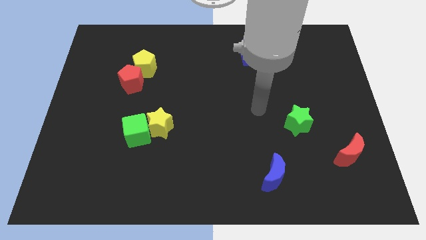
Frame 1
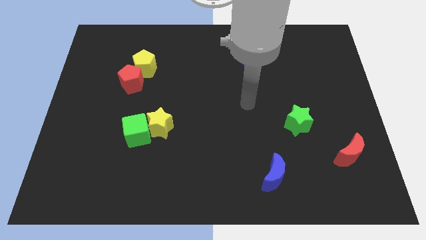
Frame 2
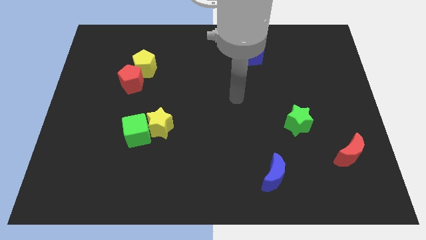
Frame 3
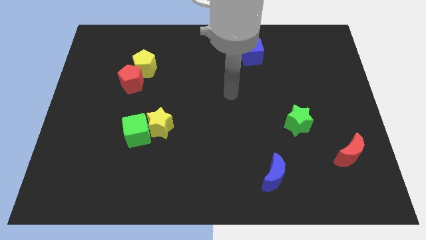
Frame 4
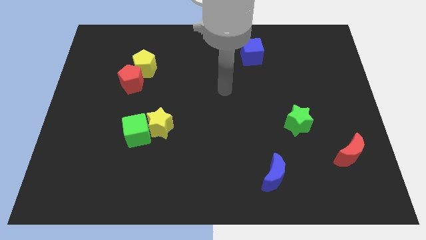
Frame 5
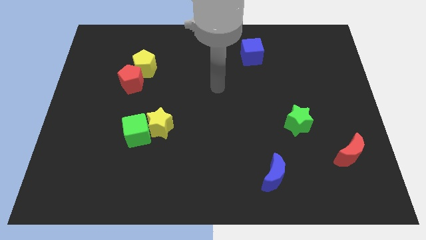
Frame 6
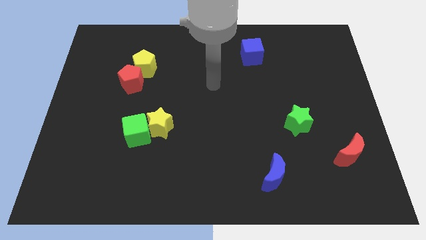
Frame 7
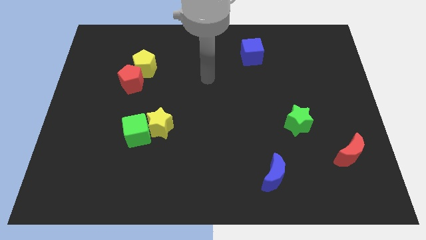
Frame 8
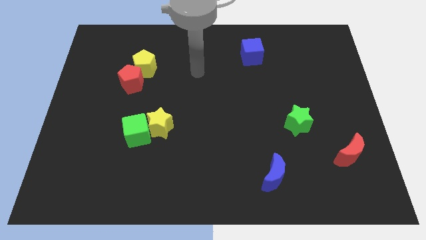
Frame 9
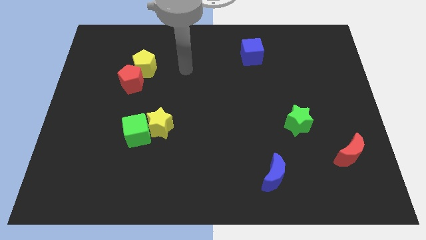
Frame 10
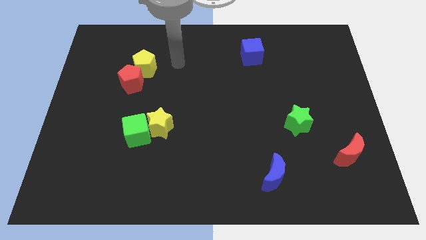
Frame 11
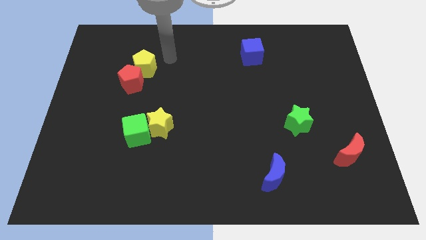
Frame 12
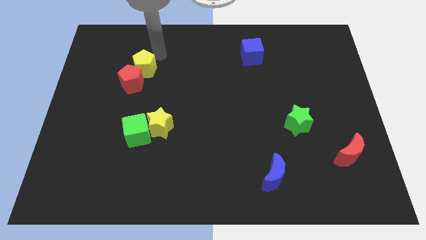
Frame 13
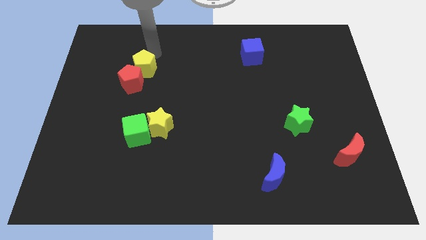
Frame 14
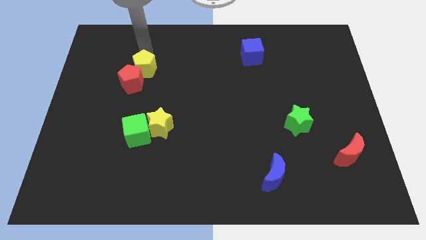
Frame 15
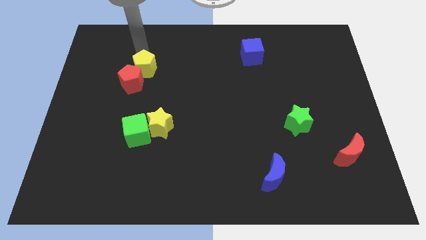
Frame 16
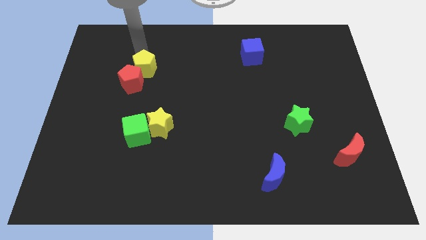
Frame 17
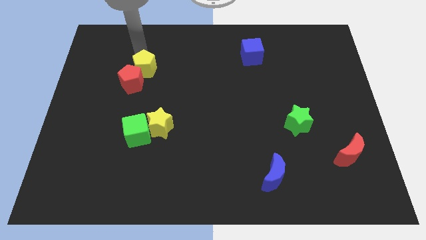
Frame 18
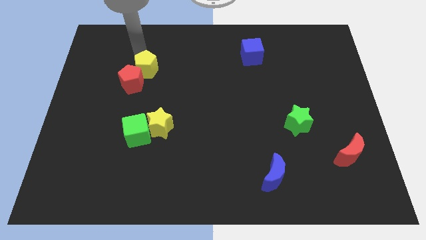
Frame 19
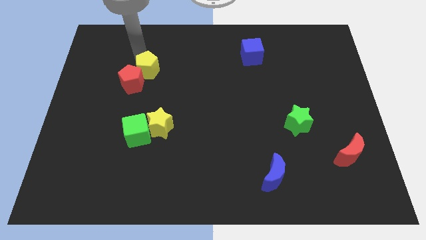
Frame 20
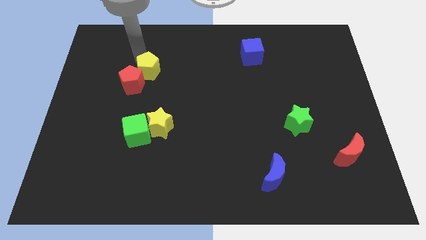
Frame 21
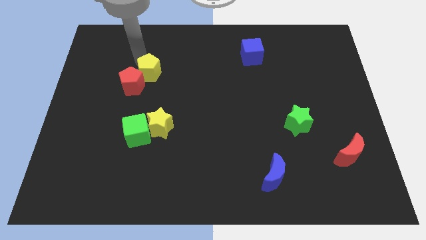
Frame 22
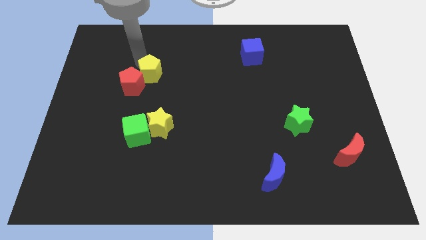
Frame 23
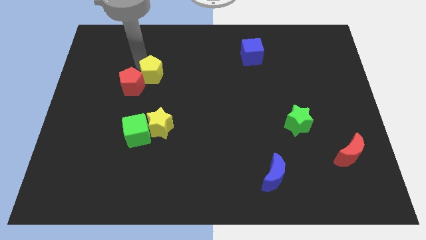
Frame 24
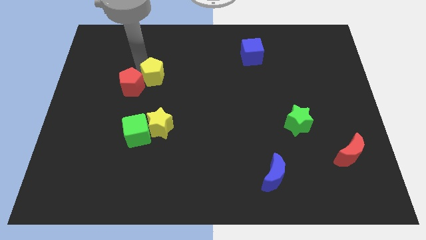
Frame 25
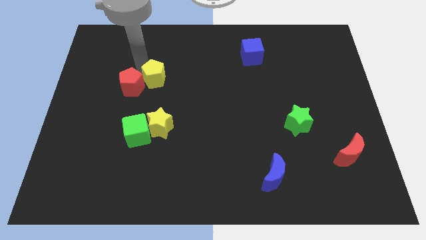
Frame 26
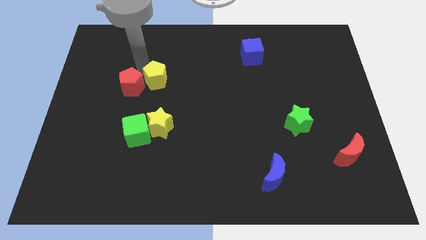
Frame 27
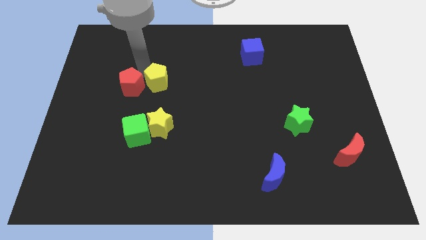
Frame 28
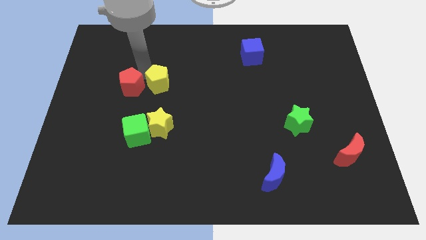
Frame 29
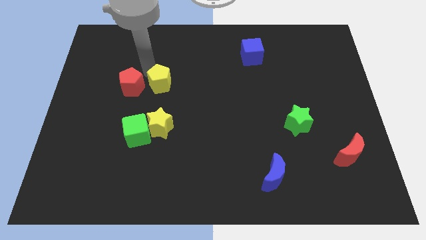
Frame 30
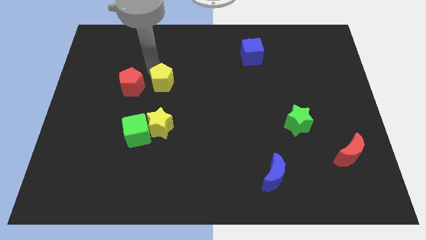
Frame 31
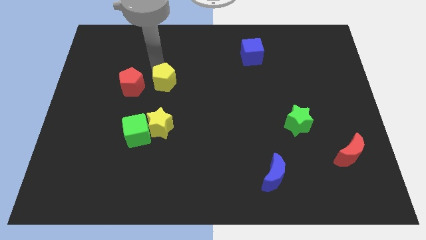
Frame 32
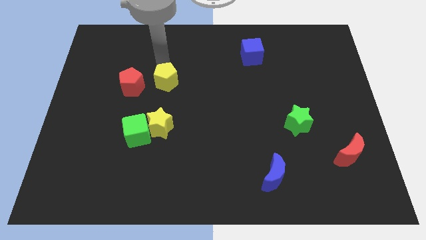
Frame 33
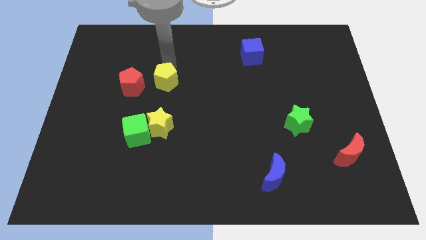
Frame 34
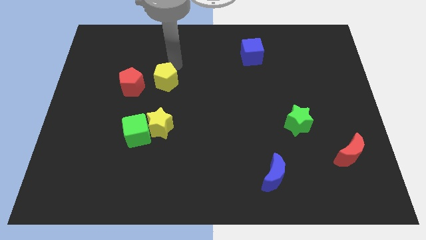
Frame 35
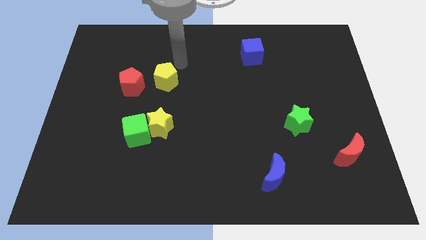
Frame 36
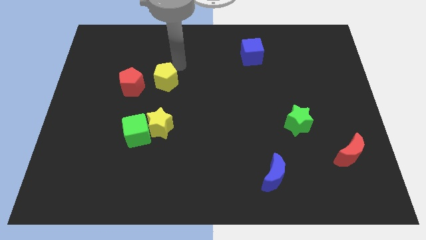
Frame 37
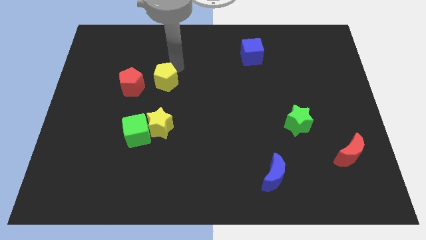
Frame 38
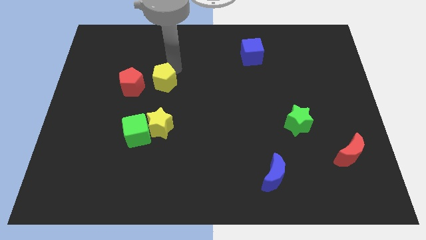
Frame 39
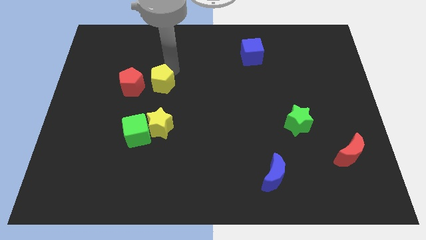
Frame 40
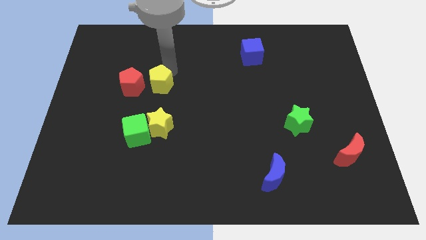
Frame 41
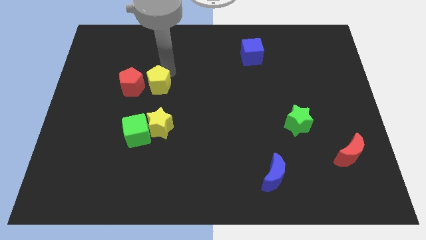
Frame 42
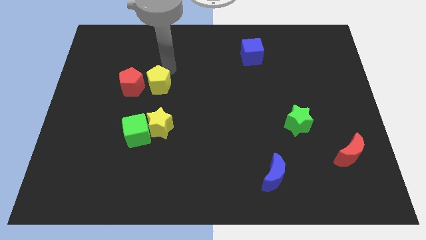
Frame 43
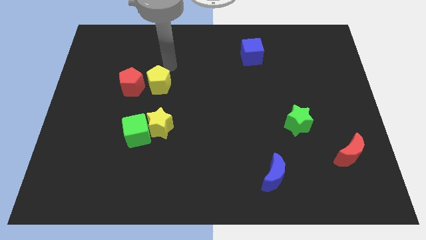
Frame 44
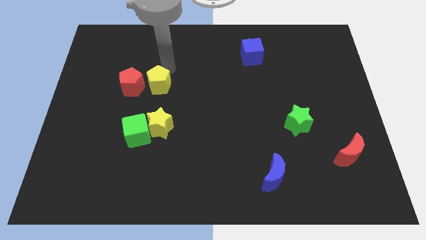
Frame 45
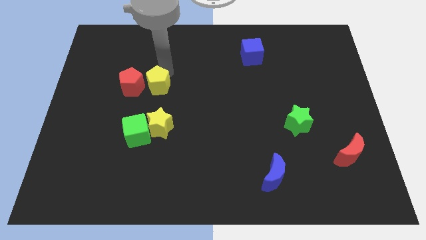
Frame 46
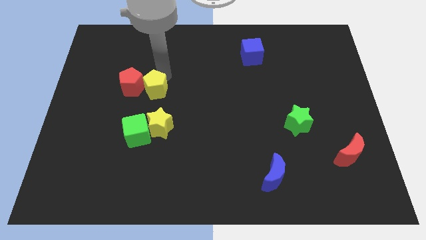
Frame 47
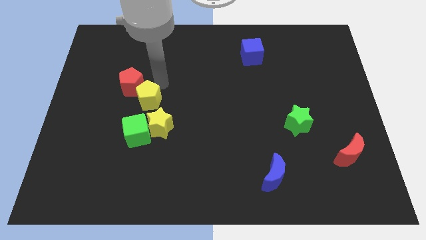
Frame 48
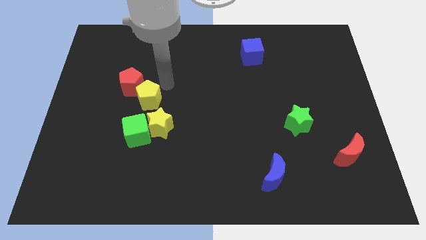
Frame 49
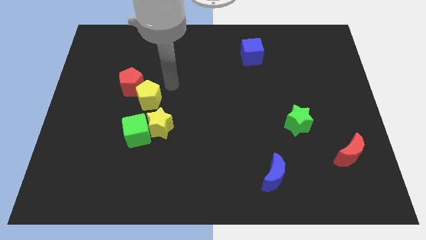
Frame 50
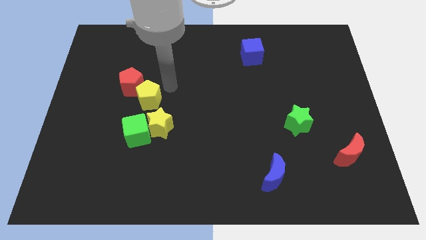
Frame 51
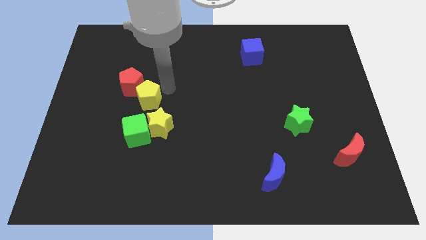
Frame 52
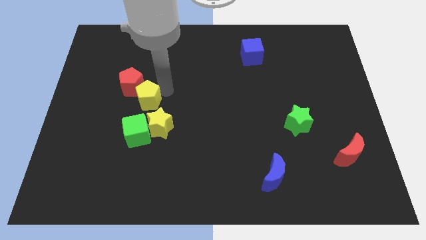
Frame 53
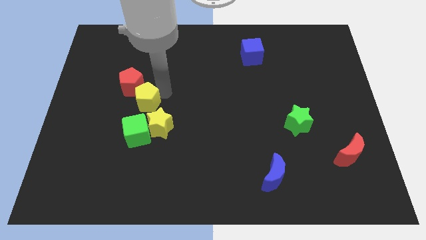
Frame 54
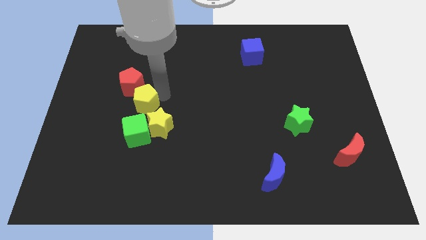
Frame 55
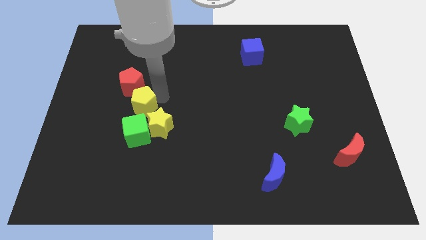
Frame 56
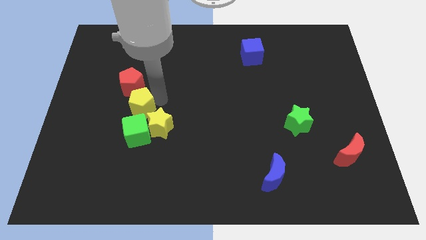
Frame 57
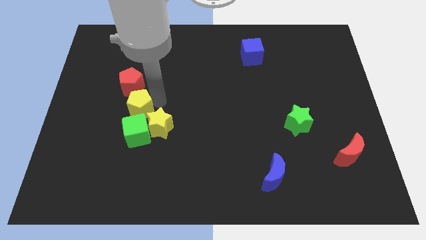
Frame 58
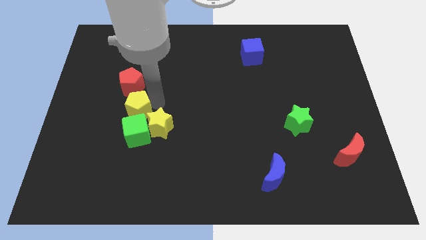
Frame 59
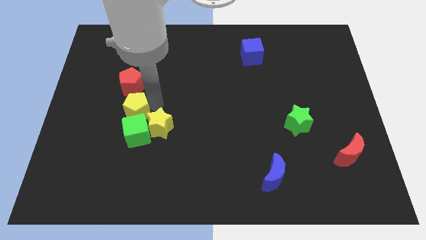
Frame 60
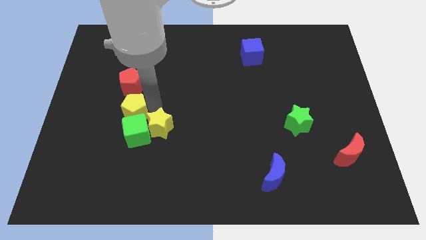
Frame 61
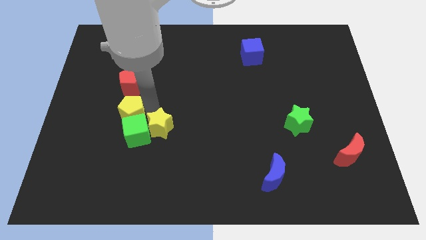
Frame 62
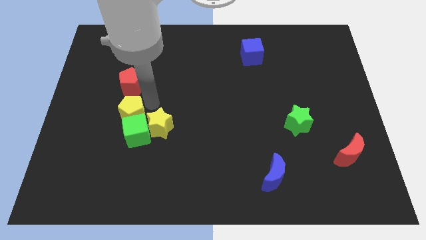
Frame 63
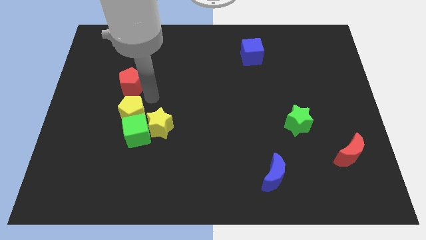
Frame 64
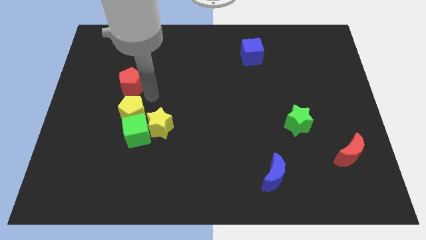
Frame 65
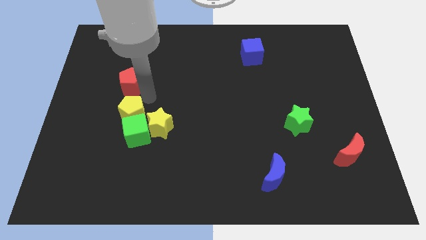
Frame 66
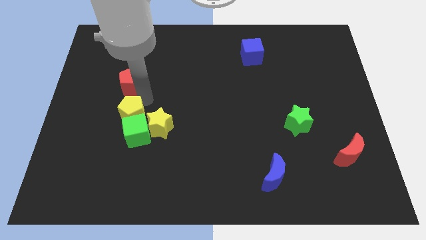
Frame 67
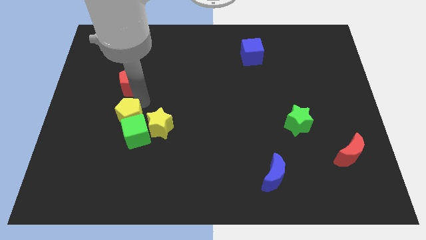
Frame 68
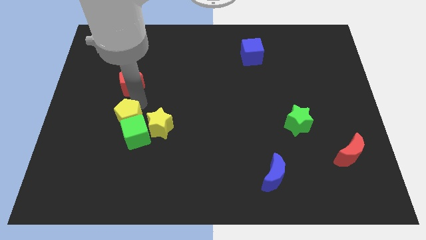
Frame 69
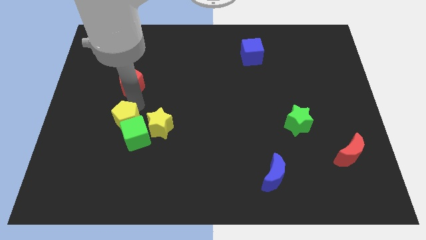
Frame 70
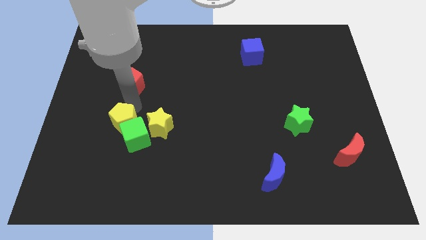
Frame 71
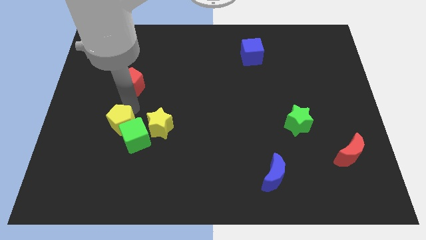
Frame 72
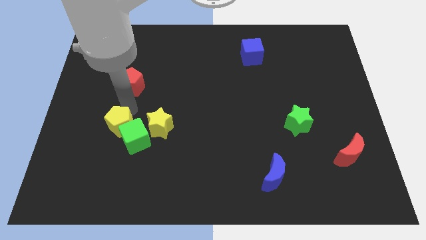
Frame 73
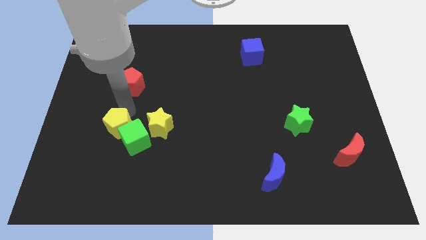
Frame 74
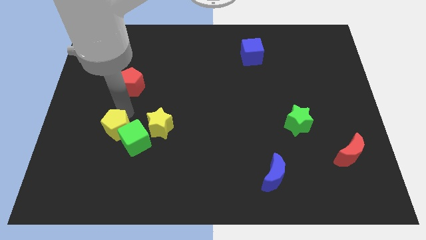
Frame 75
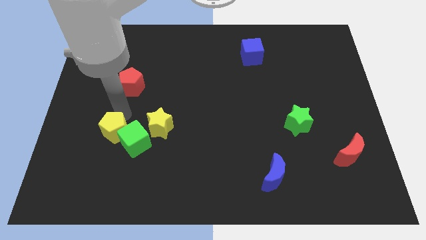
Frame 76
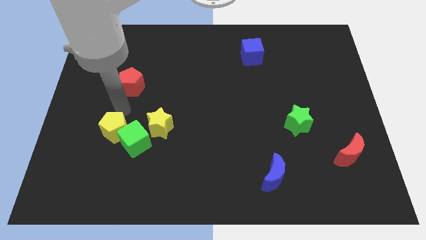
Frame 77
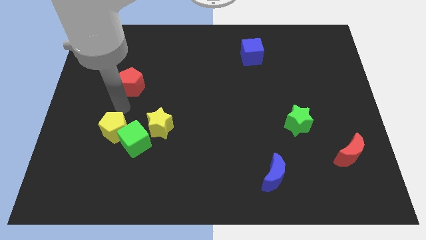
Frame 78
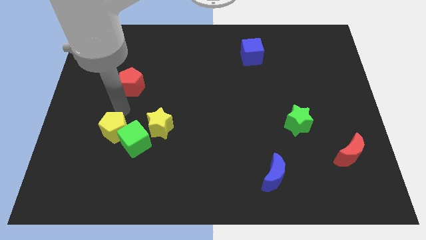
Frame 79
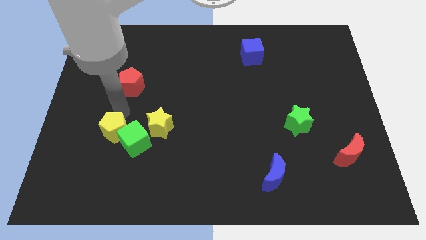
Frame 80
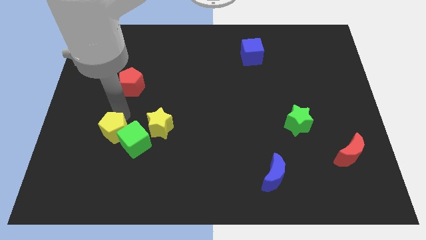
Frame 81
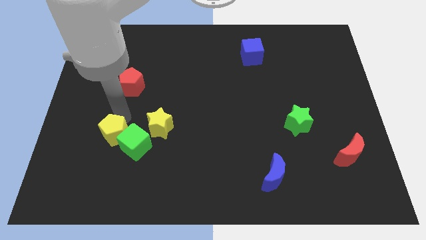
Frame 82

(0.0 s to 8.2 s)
move the yellow pentagon downwards

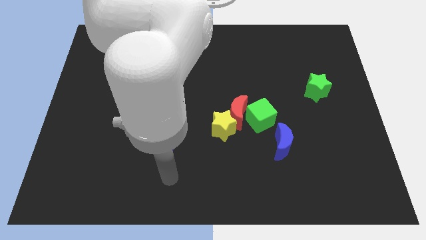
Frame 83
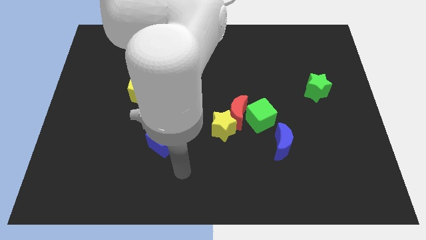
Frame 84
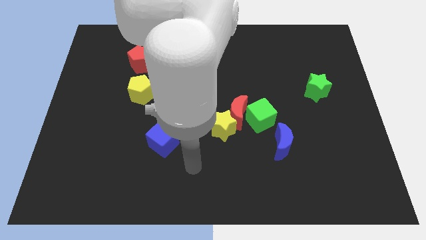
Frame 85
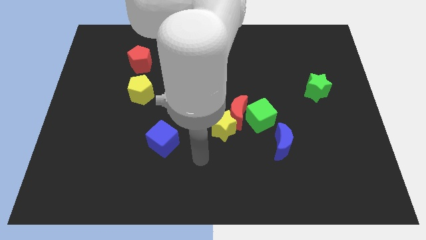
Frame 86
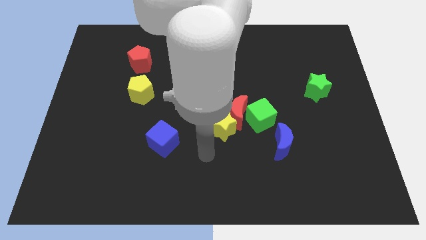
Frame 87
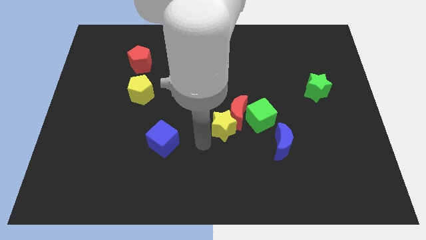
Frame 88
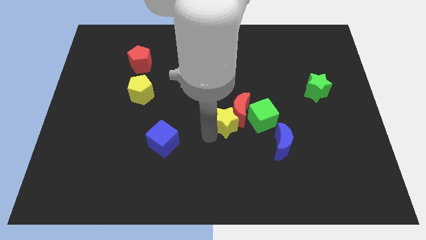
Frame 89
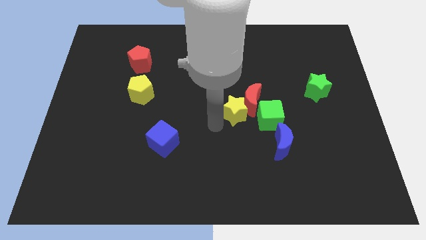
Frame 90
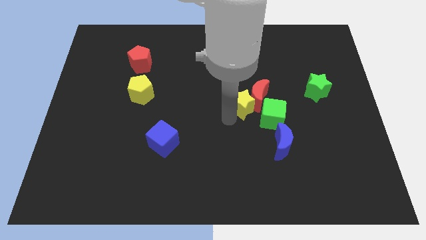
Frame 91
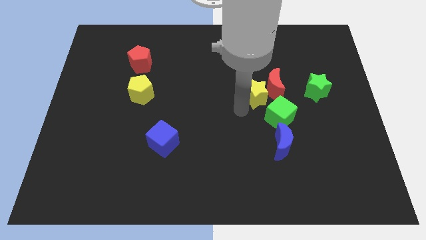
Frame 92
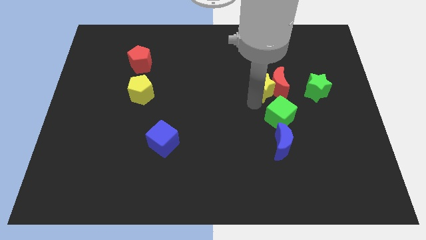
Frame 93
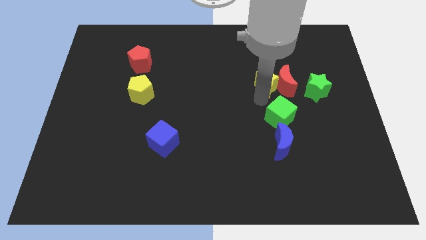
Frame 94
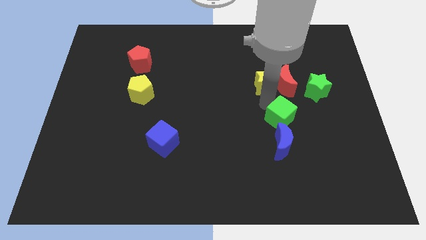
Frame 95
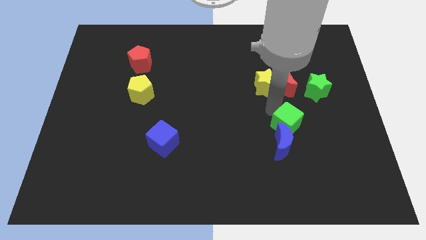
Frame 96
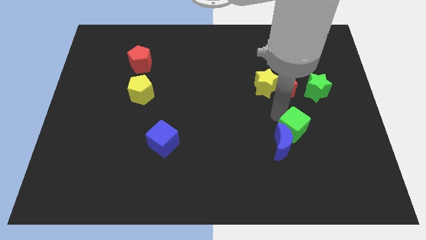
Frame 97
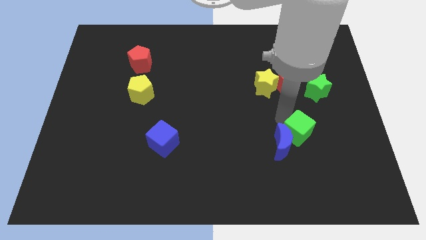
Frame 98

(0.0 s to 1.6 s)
push the green cube down and then right somewhat
